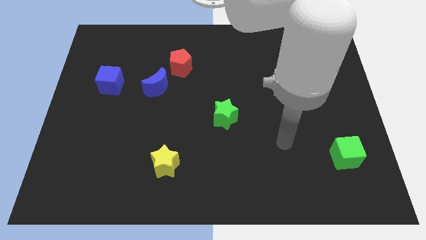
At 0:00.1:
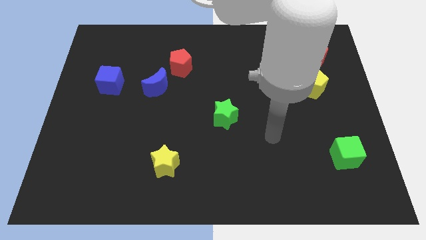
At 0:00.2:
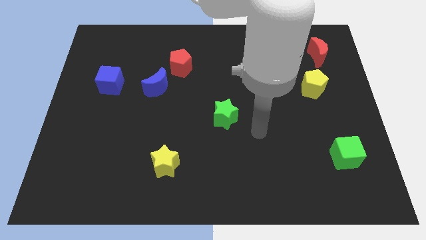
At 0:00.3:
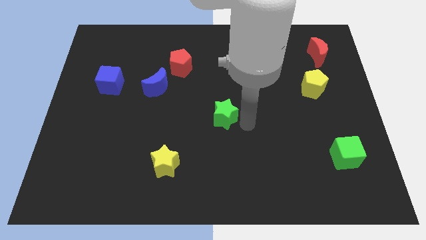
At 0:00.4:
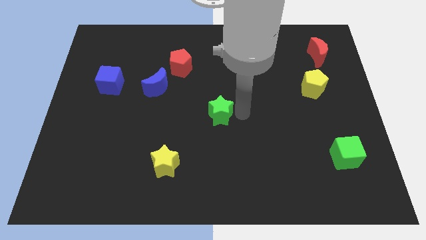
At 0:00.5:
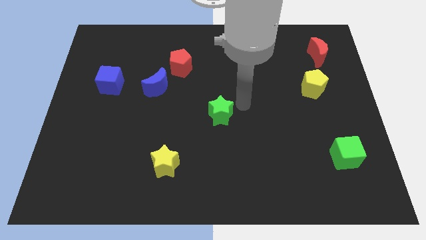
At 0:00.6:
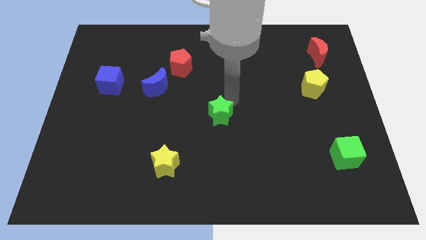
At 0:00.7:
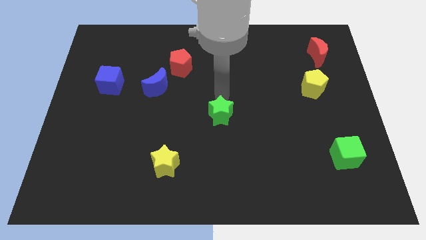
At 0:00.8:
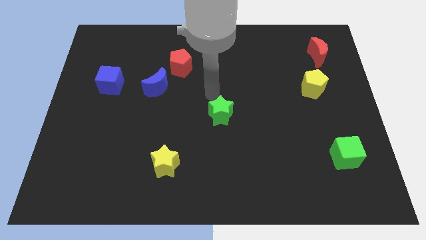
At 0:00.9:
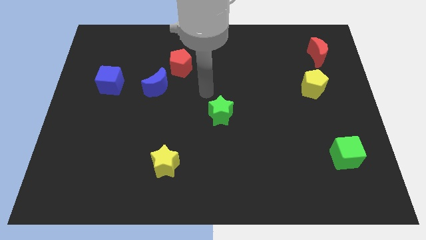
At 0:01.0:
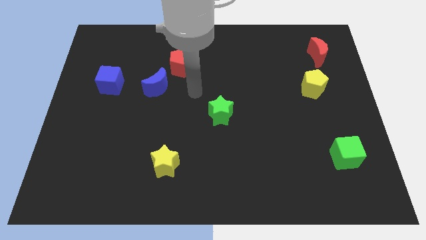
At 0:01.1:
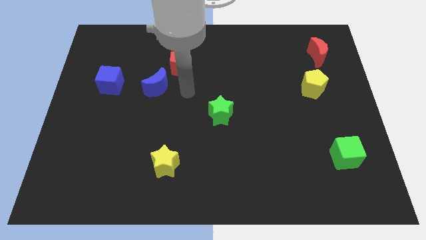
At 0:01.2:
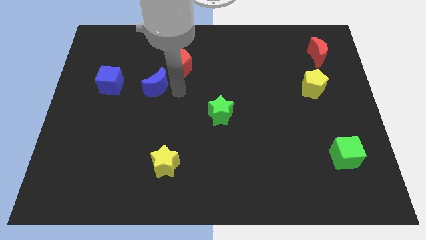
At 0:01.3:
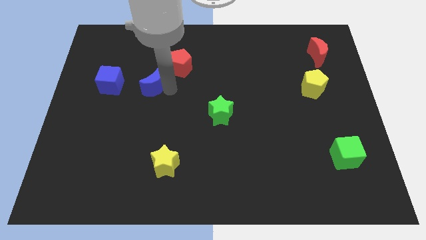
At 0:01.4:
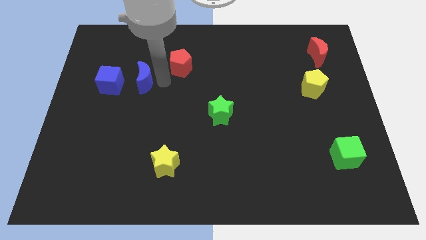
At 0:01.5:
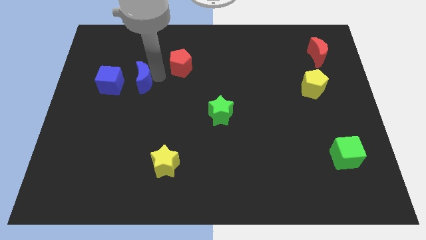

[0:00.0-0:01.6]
separate the red pentagon from the blue moon

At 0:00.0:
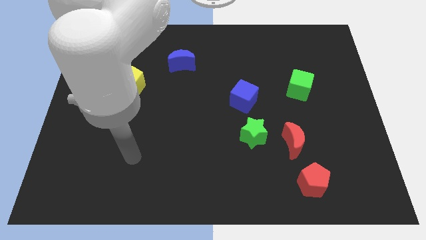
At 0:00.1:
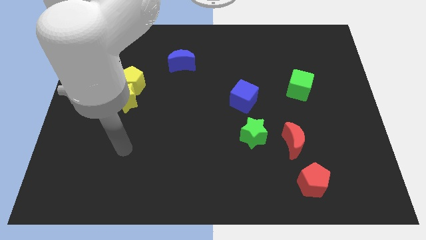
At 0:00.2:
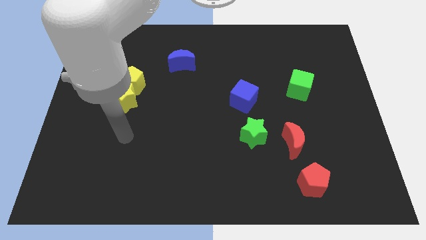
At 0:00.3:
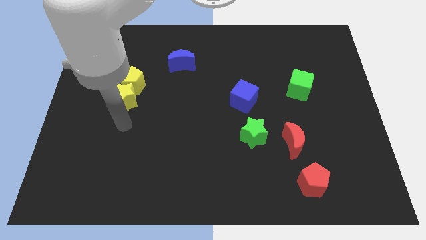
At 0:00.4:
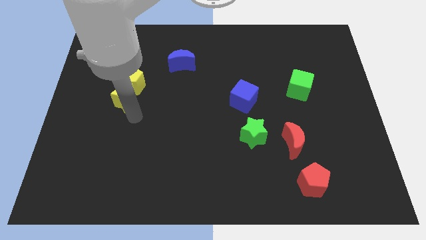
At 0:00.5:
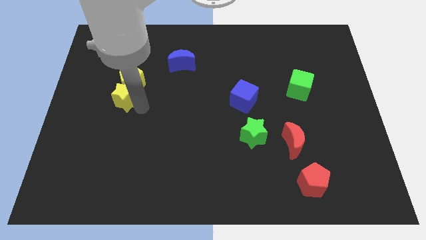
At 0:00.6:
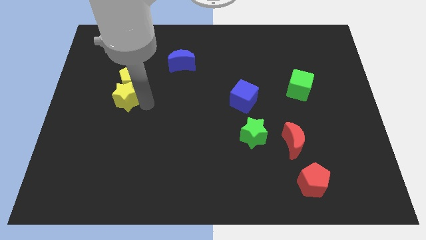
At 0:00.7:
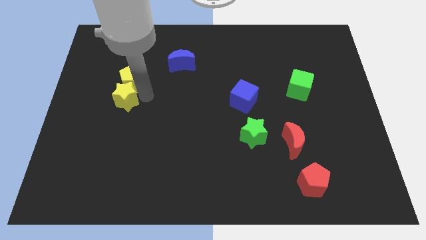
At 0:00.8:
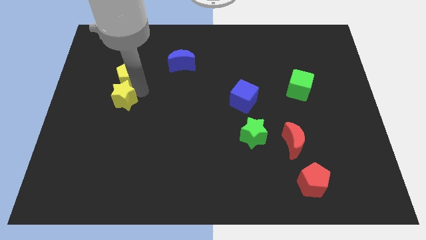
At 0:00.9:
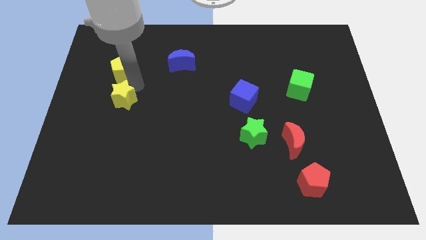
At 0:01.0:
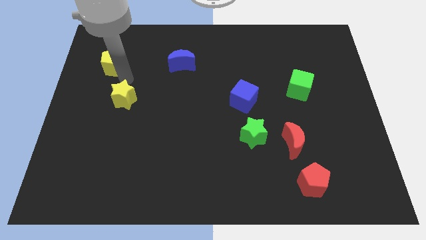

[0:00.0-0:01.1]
separate the yellow star from the yellow pentagon

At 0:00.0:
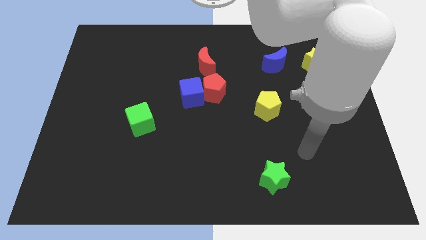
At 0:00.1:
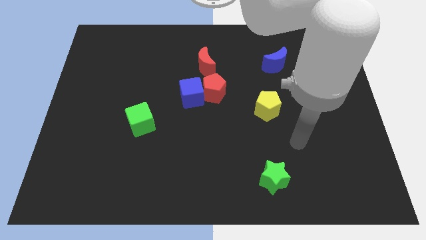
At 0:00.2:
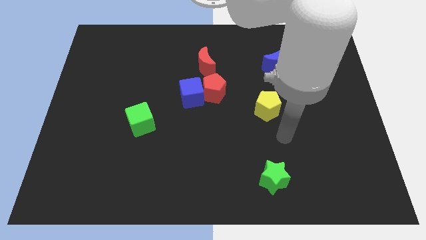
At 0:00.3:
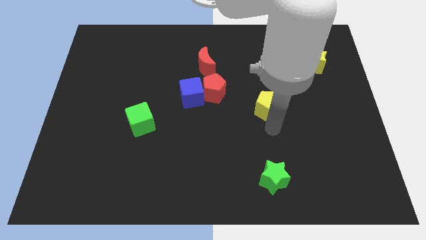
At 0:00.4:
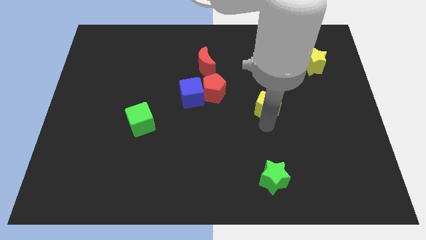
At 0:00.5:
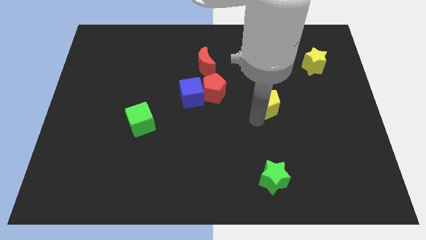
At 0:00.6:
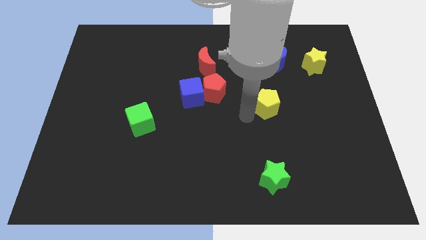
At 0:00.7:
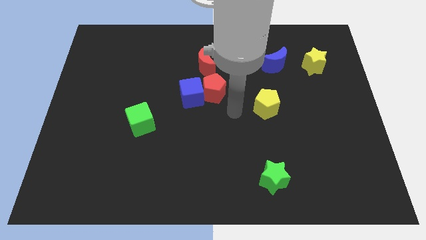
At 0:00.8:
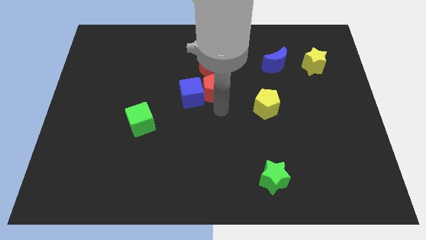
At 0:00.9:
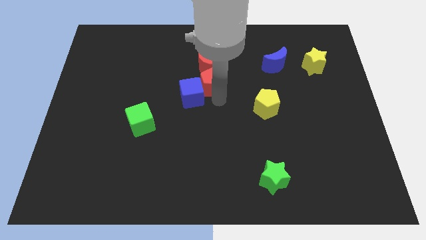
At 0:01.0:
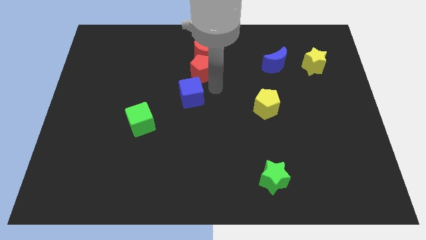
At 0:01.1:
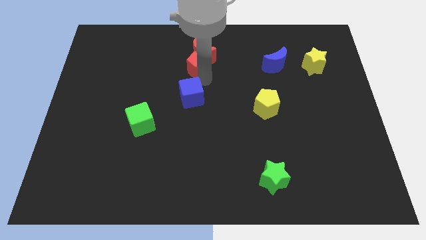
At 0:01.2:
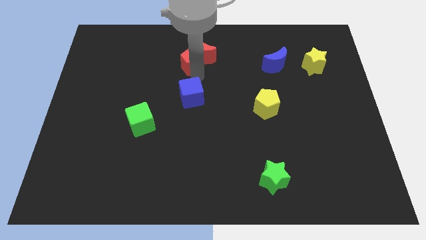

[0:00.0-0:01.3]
move the blue cube away from the red pentagon

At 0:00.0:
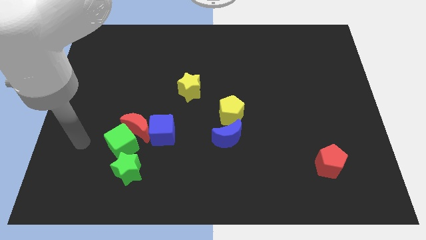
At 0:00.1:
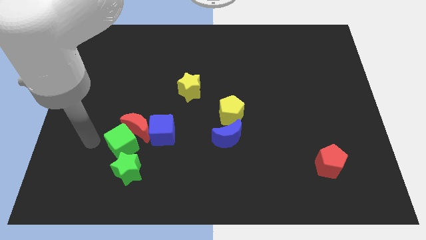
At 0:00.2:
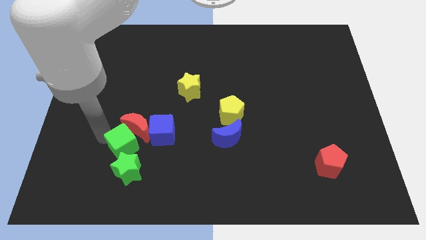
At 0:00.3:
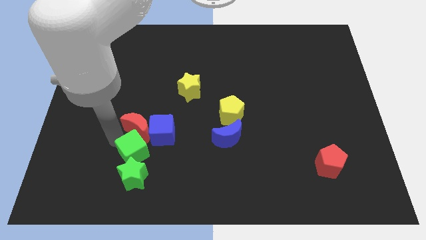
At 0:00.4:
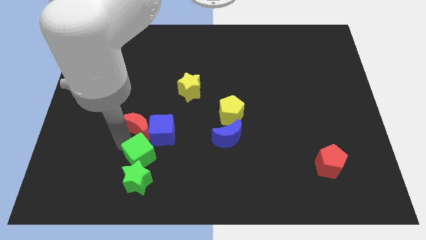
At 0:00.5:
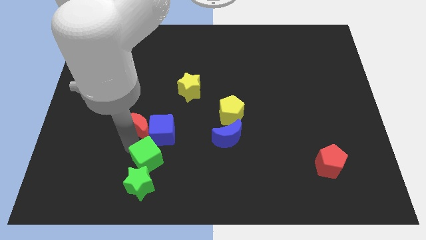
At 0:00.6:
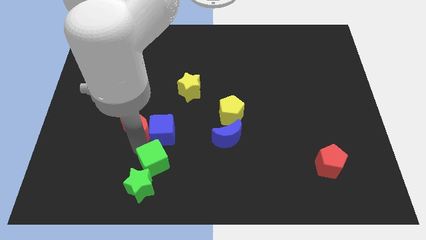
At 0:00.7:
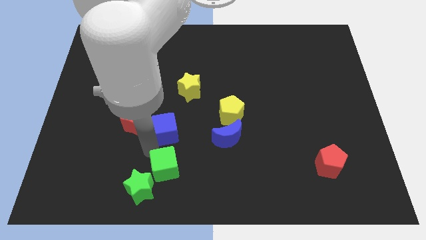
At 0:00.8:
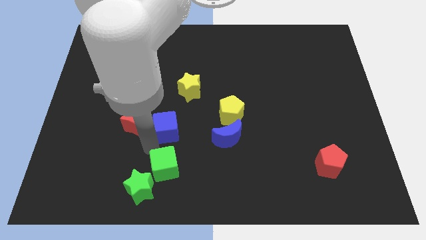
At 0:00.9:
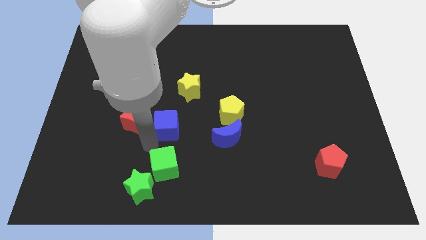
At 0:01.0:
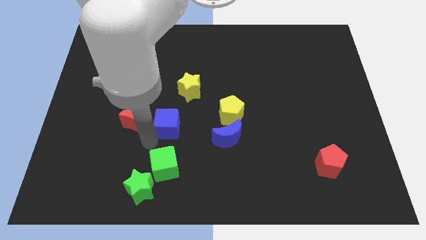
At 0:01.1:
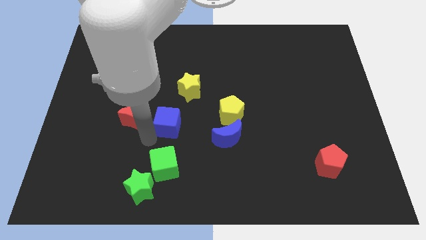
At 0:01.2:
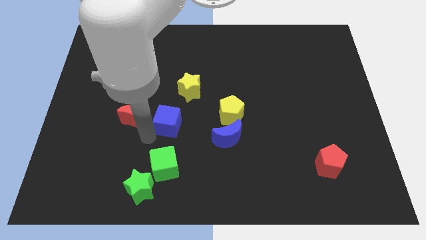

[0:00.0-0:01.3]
separate the red moon from the green cube and blue cube

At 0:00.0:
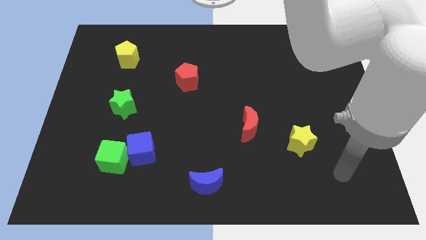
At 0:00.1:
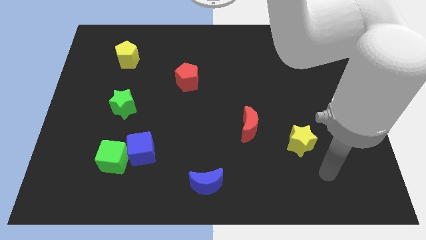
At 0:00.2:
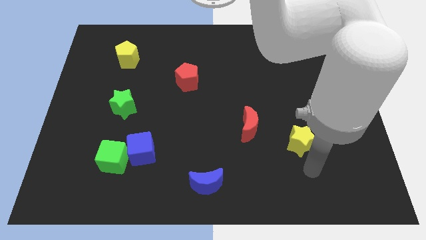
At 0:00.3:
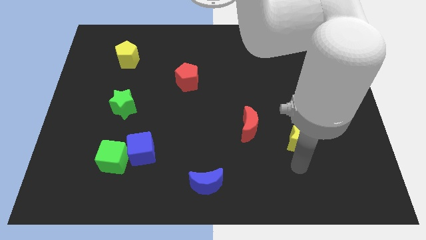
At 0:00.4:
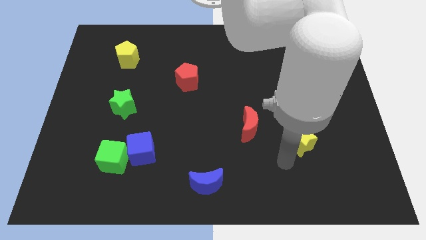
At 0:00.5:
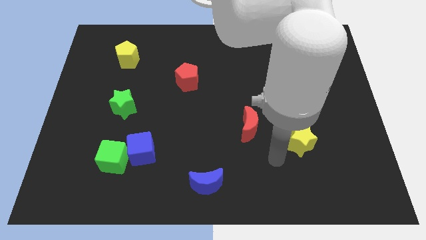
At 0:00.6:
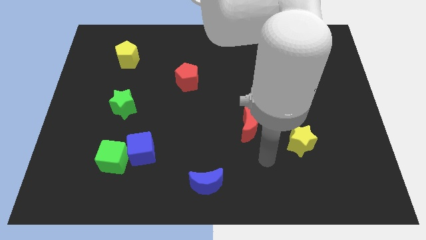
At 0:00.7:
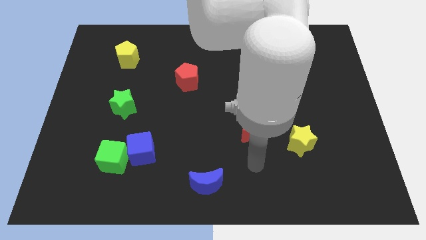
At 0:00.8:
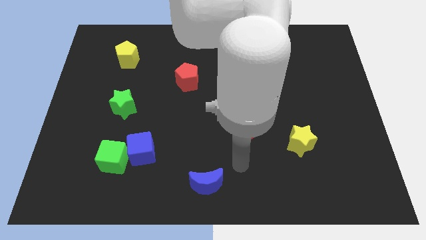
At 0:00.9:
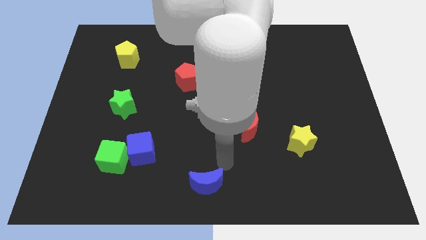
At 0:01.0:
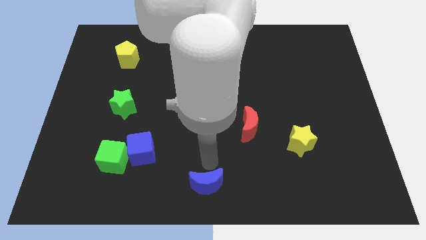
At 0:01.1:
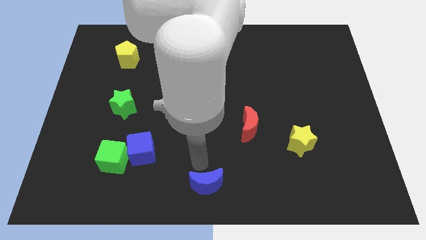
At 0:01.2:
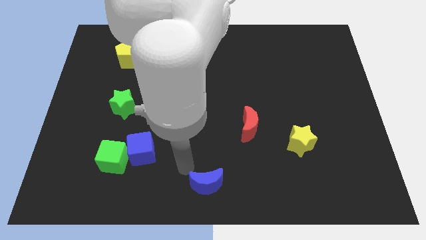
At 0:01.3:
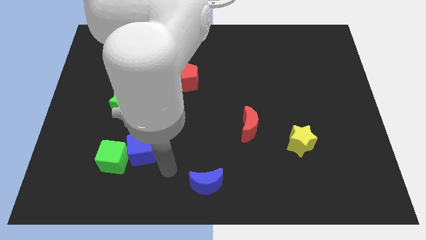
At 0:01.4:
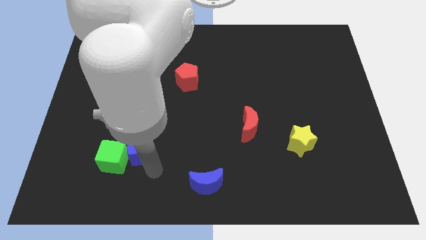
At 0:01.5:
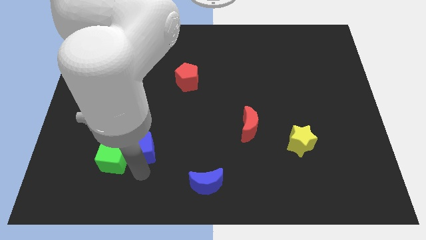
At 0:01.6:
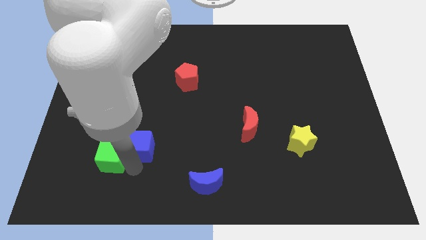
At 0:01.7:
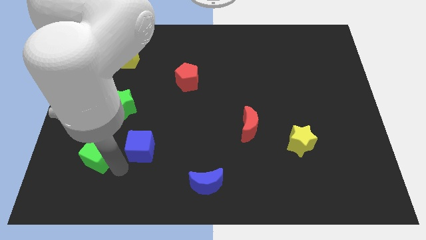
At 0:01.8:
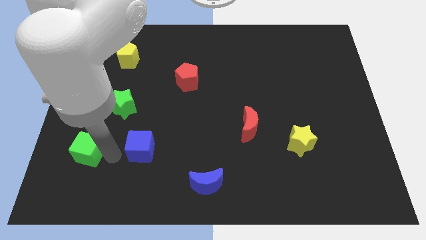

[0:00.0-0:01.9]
separate the blue cube from the green cube

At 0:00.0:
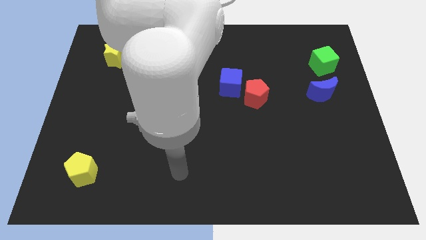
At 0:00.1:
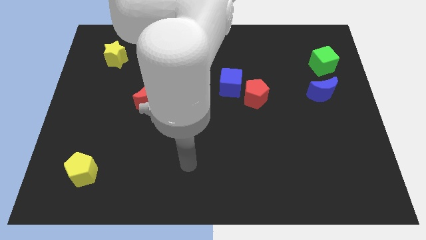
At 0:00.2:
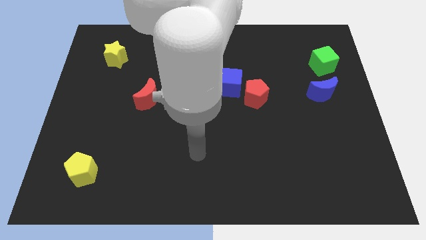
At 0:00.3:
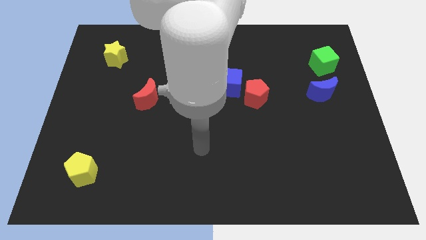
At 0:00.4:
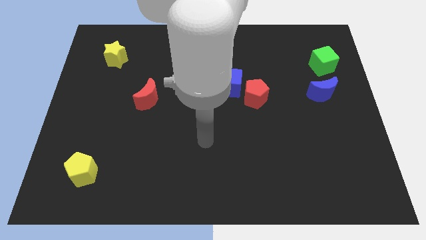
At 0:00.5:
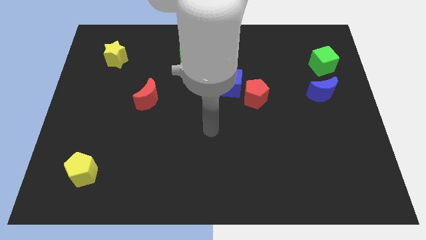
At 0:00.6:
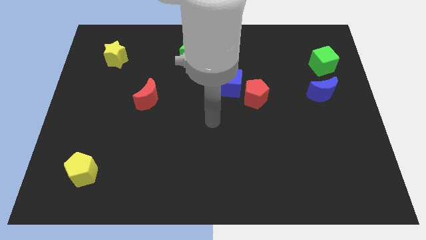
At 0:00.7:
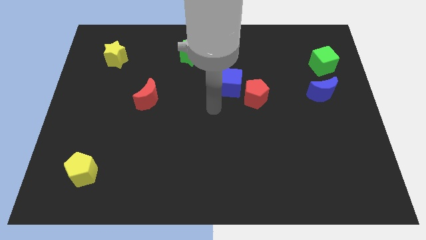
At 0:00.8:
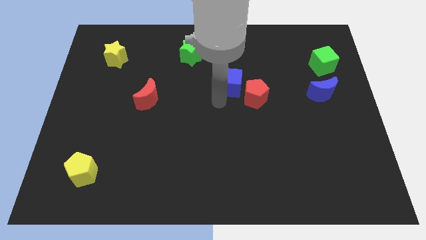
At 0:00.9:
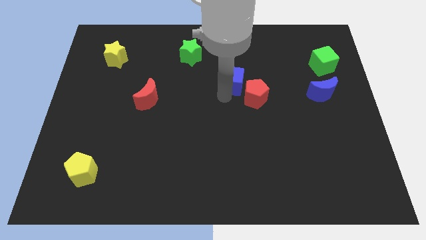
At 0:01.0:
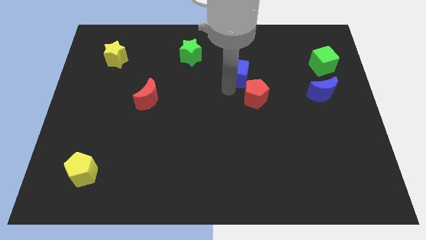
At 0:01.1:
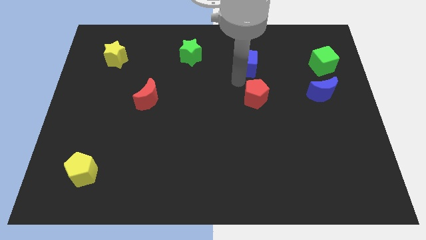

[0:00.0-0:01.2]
separate the red pentagon from the blue cube

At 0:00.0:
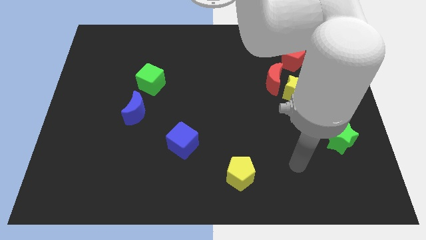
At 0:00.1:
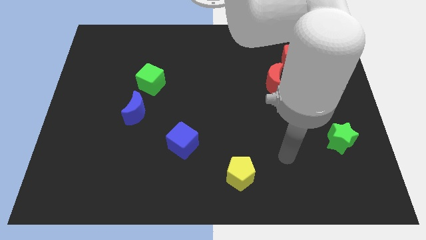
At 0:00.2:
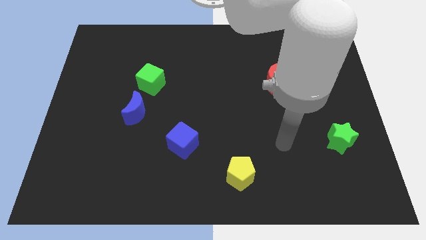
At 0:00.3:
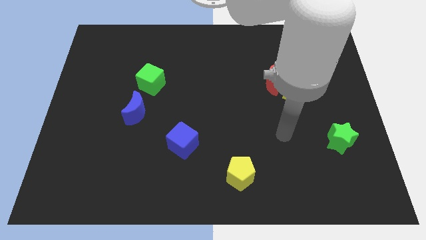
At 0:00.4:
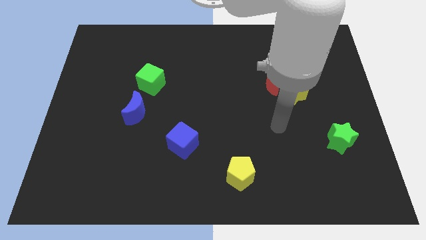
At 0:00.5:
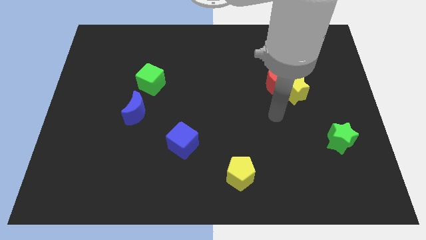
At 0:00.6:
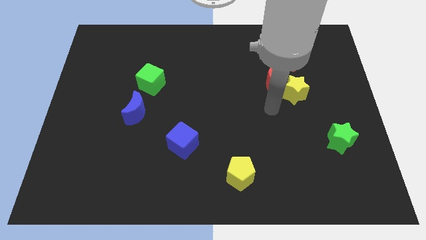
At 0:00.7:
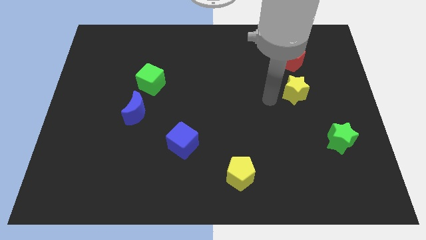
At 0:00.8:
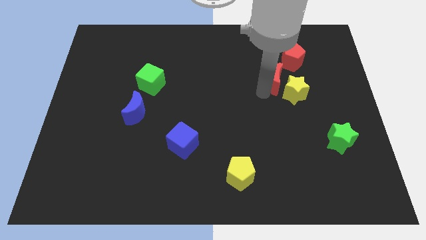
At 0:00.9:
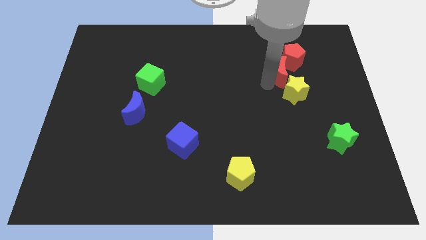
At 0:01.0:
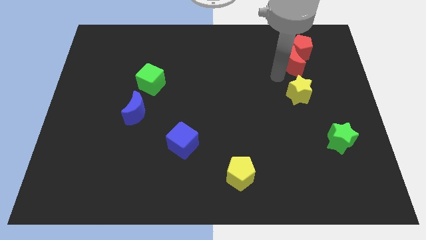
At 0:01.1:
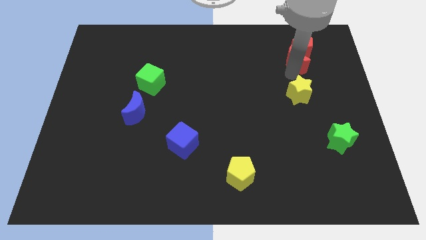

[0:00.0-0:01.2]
separate the yellow star from the red moon
